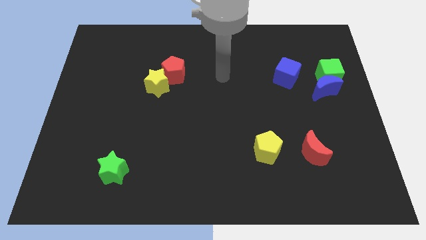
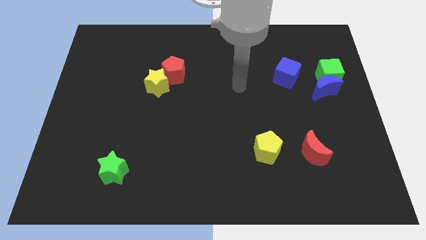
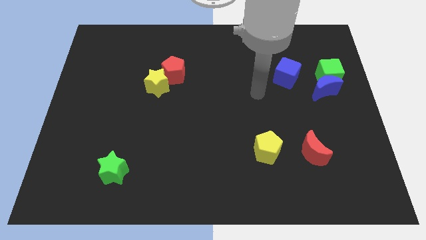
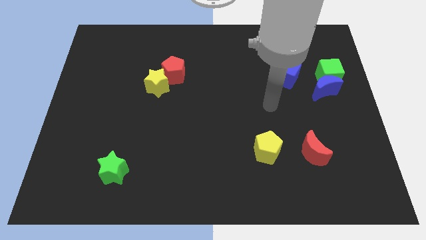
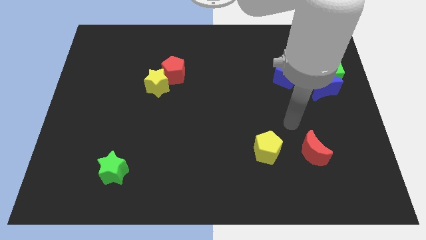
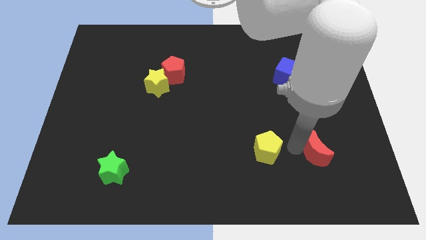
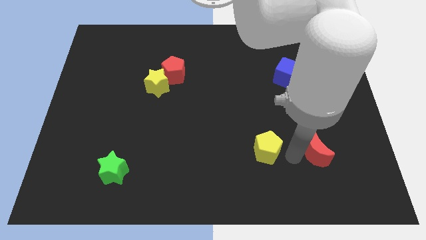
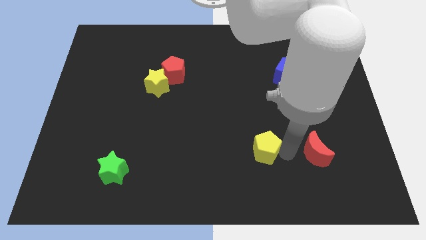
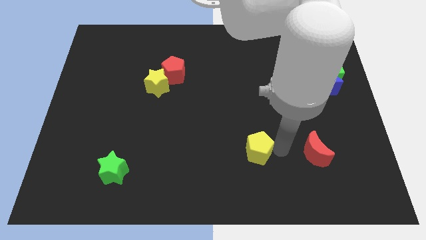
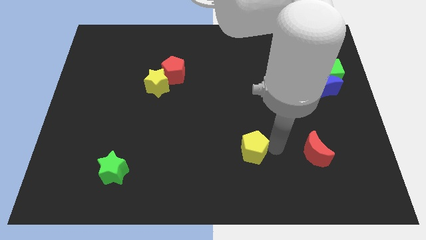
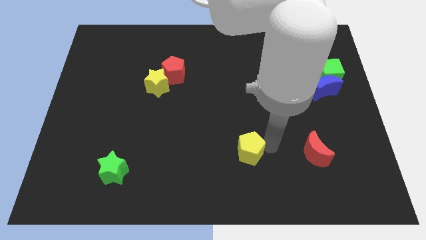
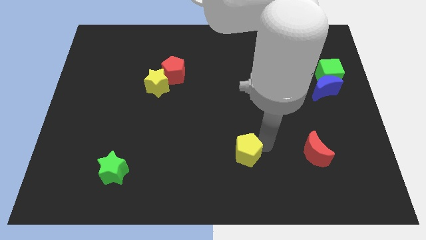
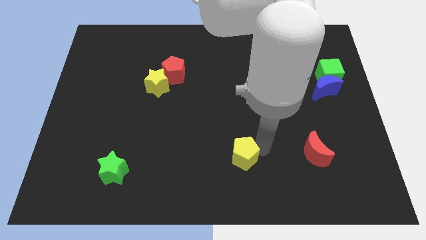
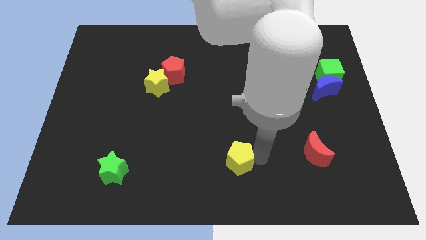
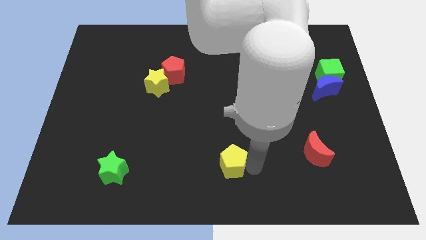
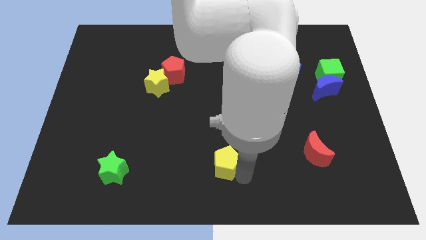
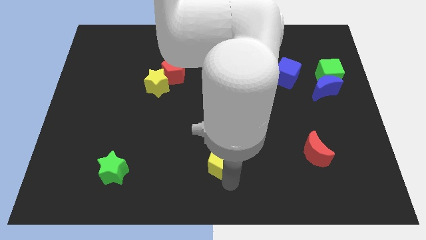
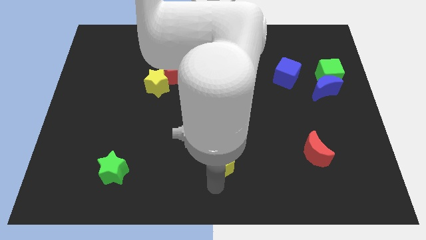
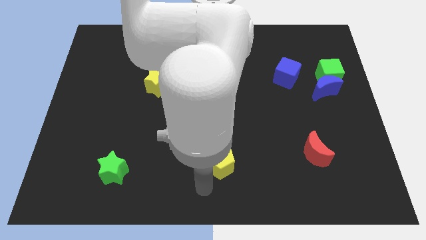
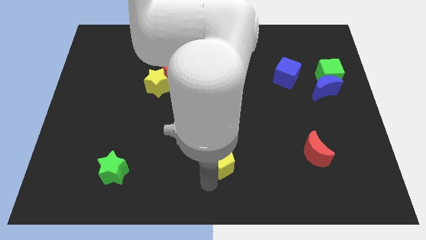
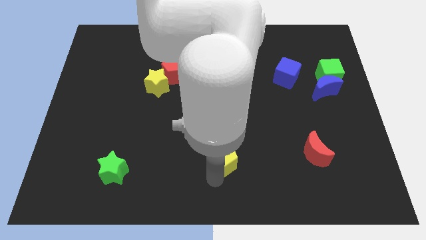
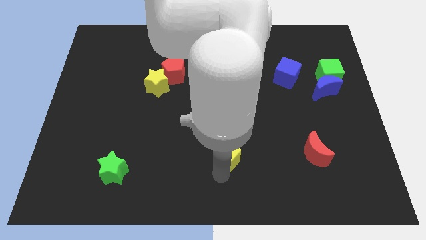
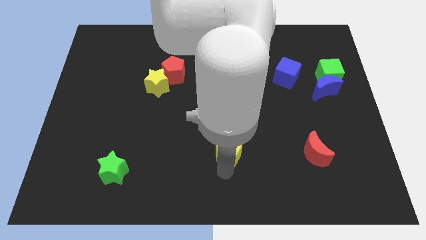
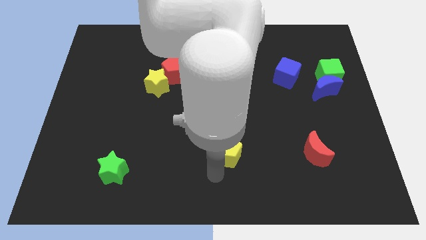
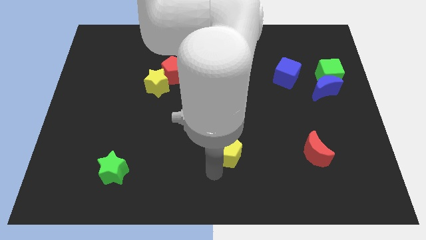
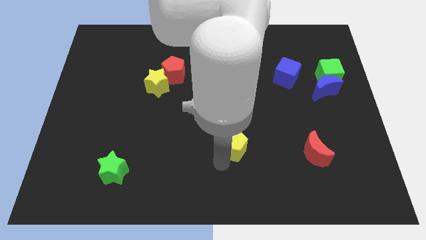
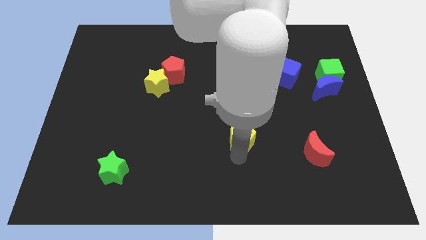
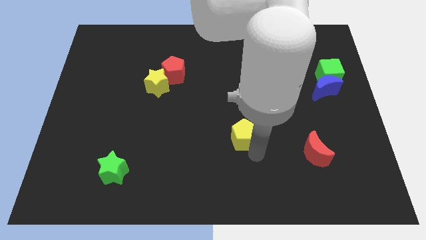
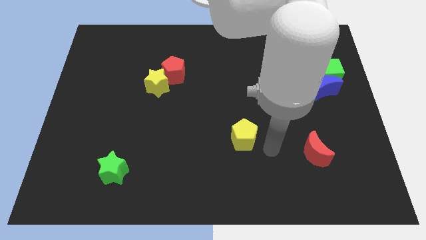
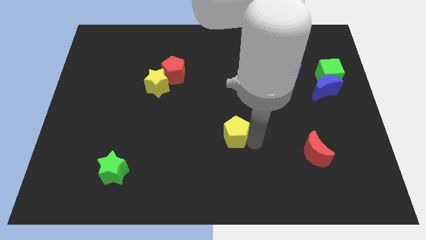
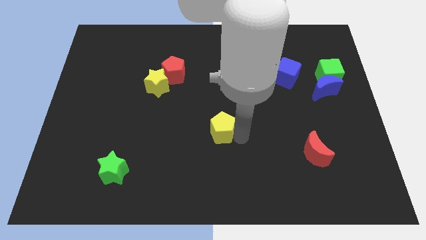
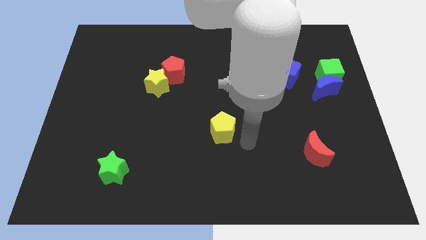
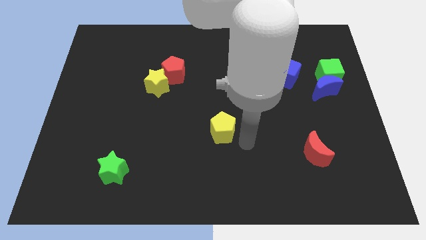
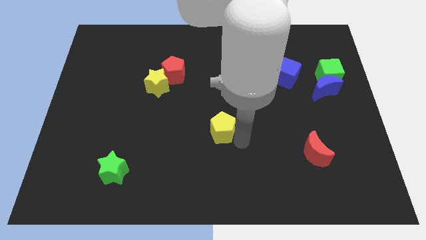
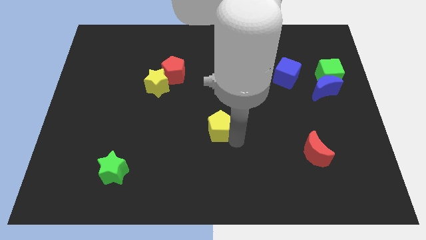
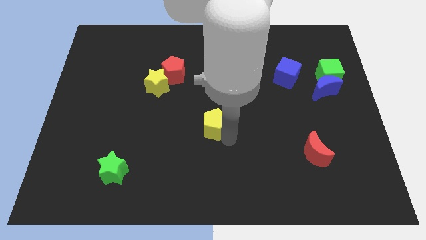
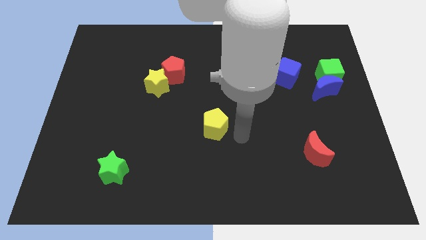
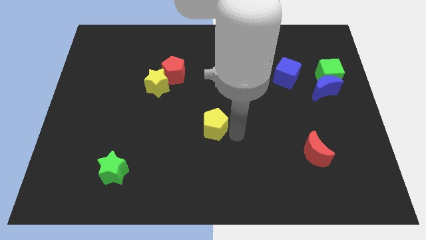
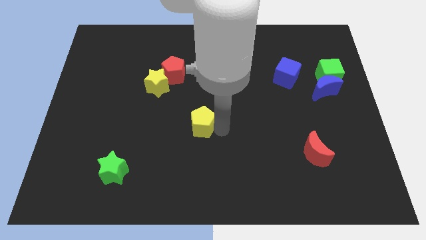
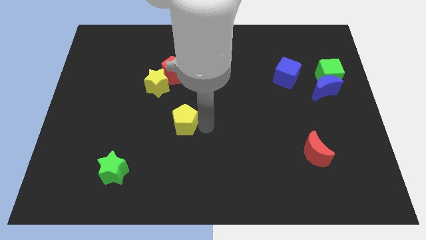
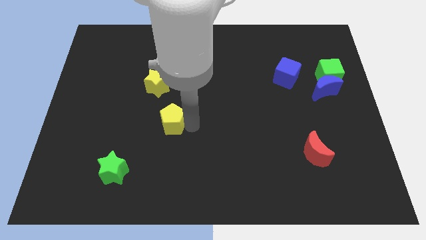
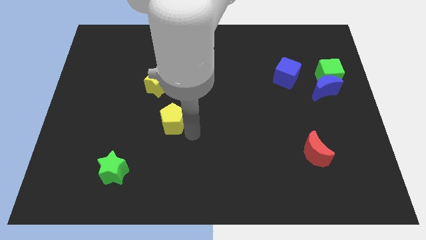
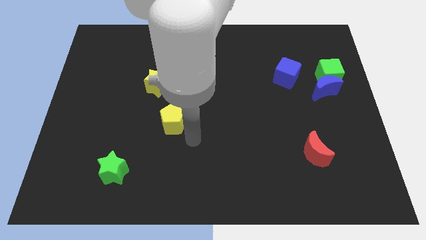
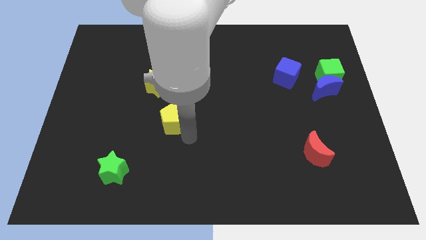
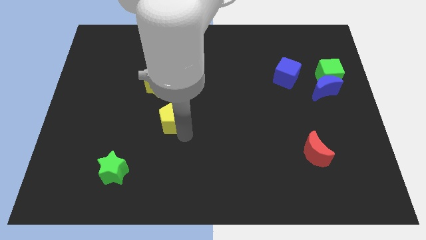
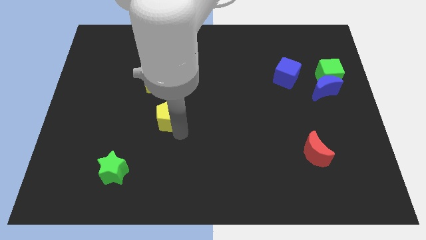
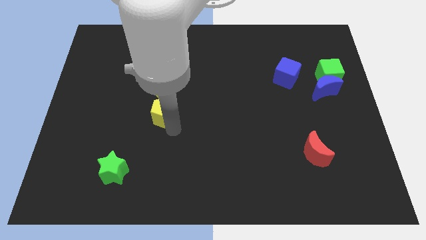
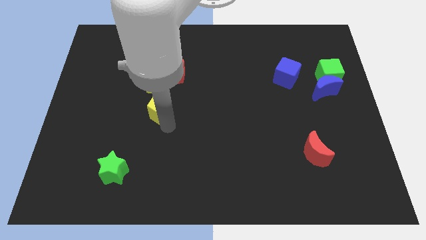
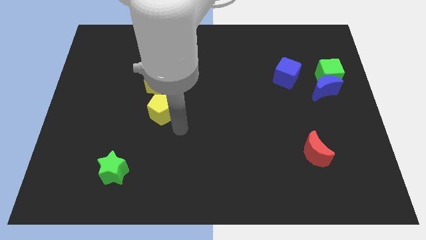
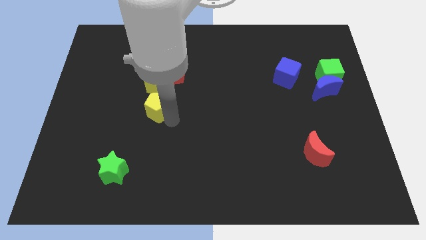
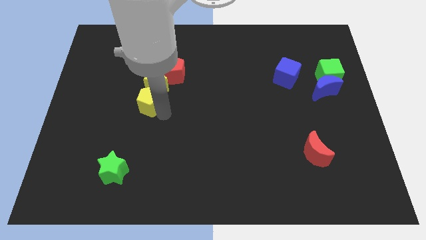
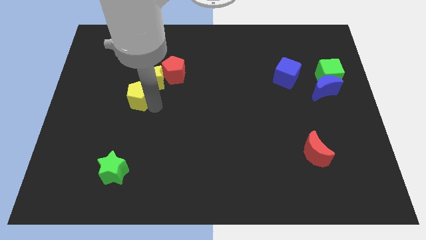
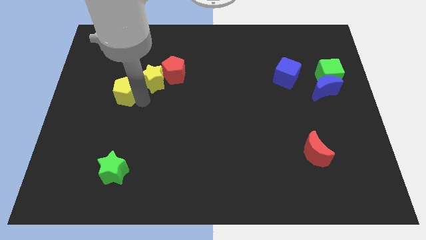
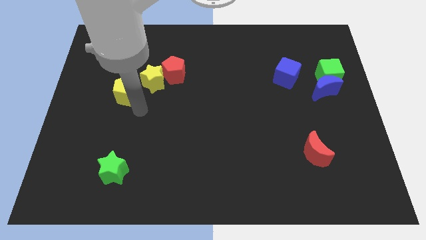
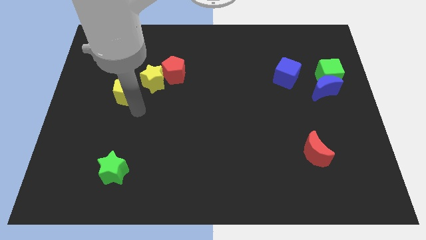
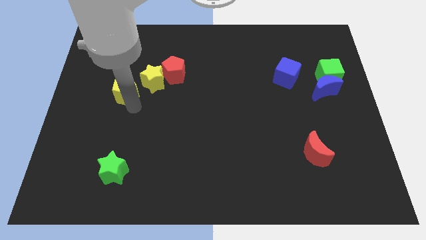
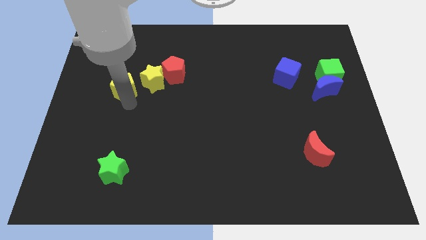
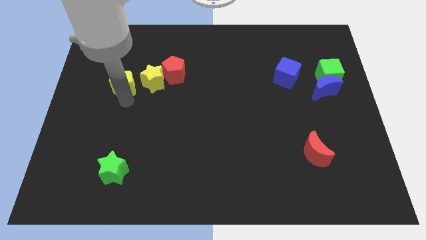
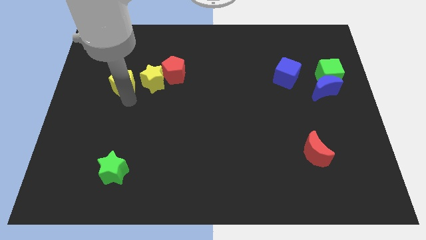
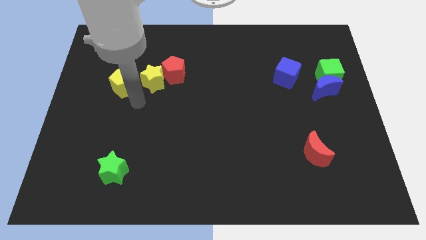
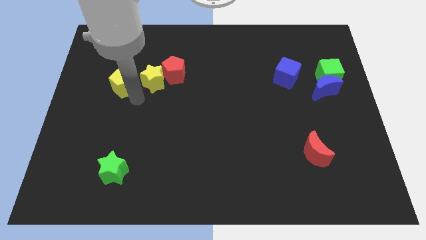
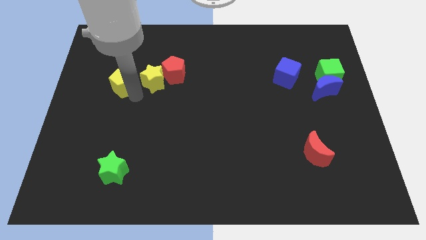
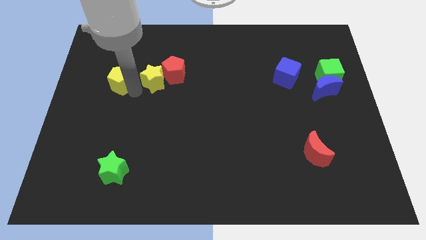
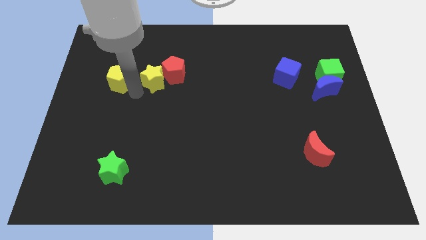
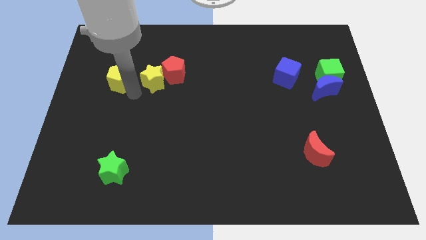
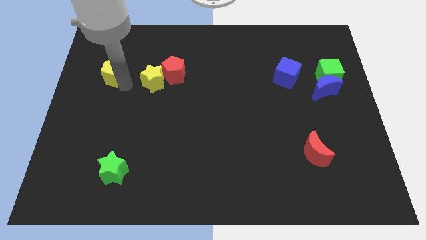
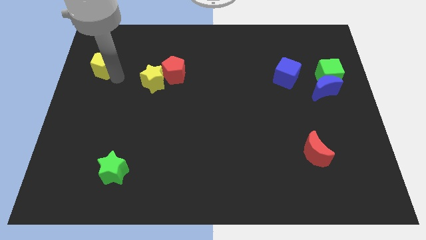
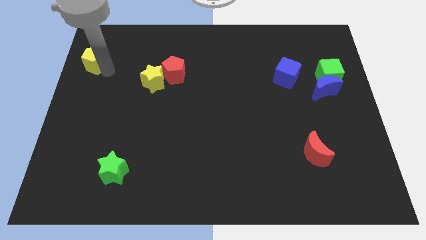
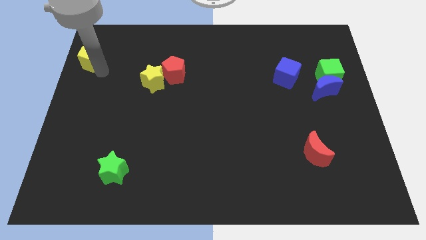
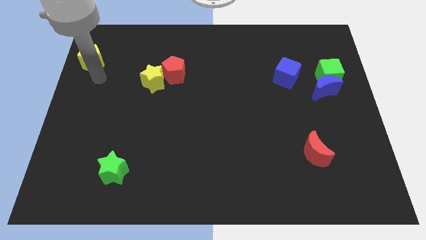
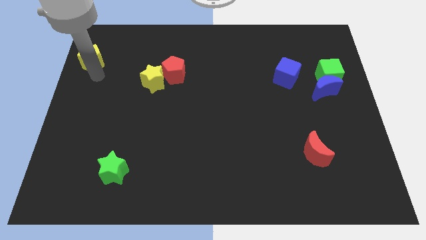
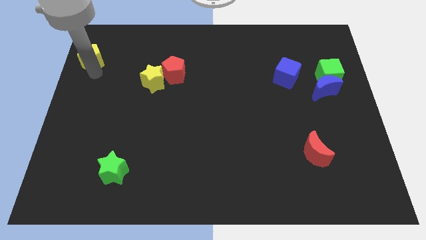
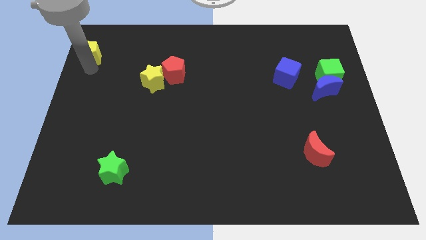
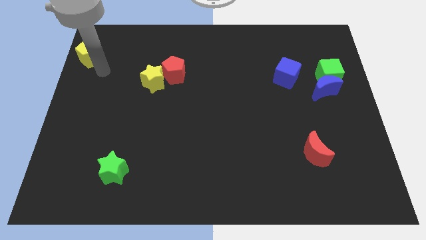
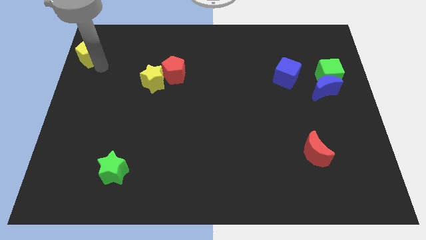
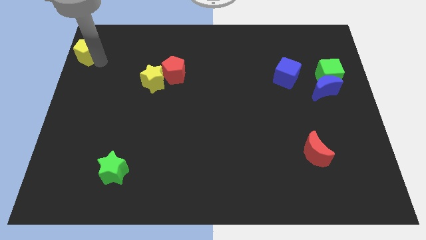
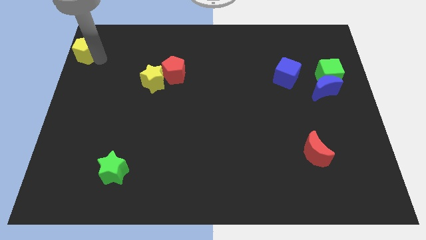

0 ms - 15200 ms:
slide the yellow pentagon to the upper left corner
